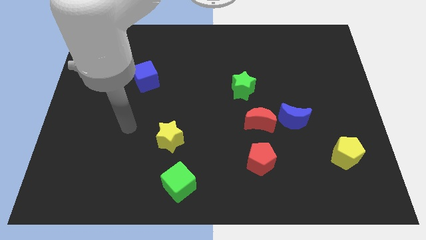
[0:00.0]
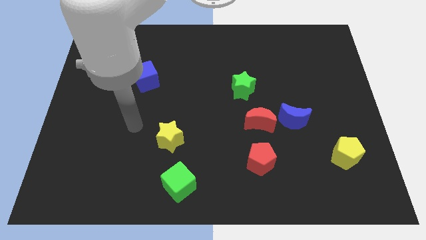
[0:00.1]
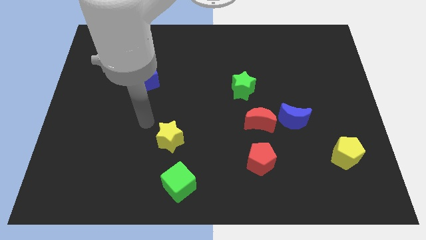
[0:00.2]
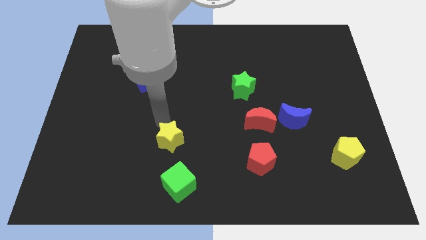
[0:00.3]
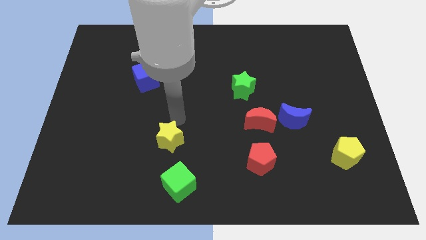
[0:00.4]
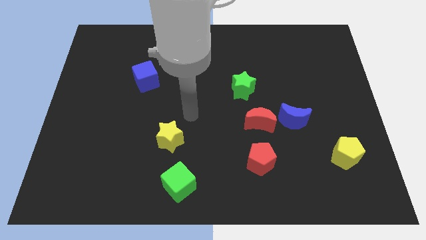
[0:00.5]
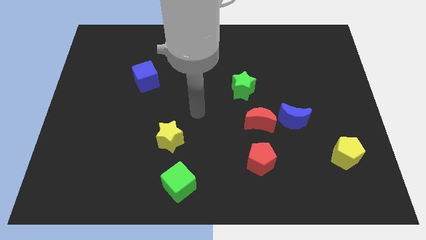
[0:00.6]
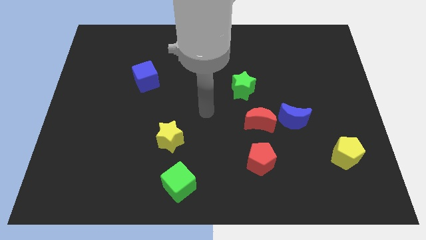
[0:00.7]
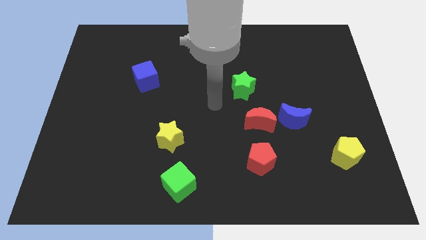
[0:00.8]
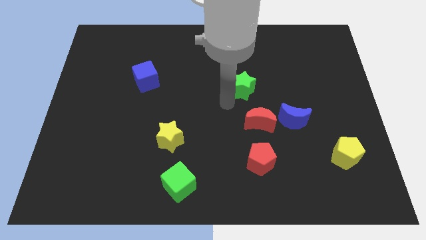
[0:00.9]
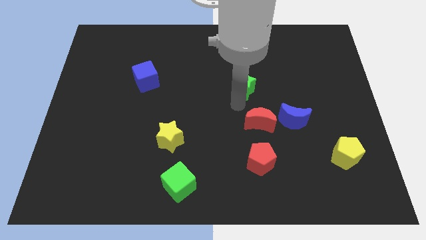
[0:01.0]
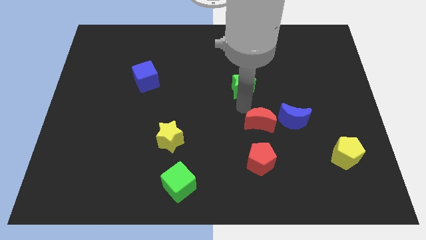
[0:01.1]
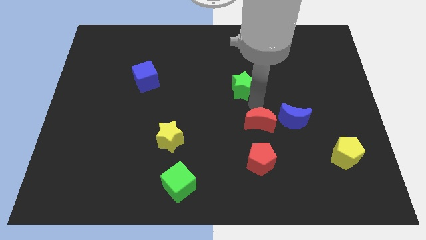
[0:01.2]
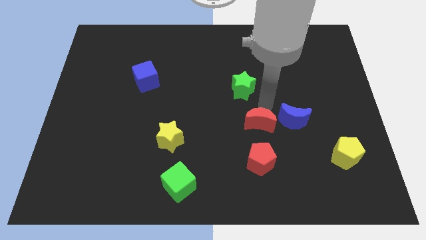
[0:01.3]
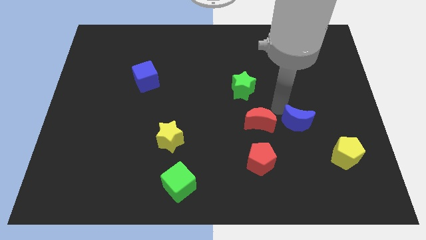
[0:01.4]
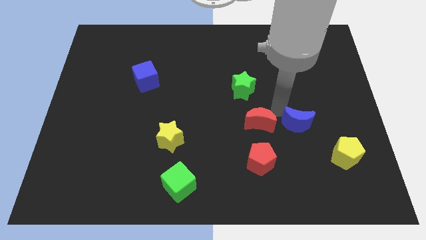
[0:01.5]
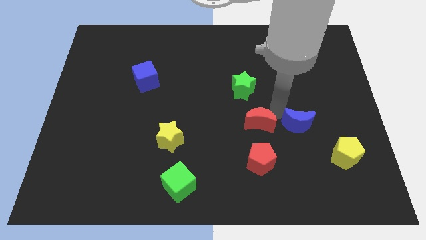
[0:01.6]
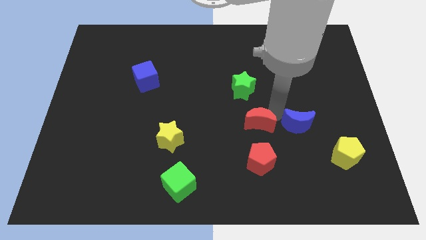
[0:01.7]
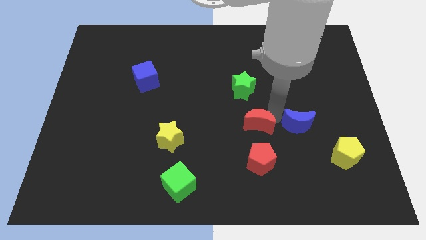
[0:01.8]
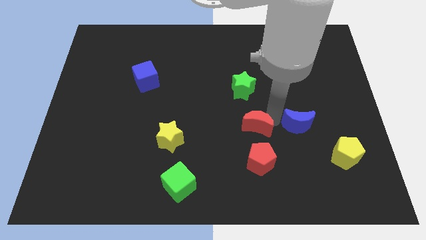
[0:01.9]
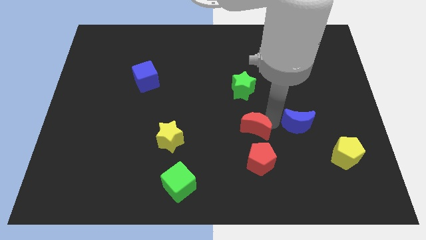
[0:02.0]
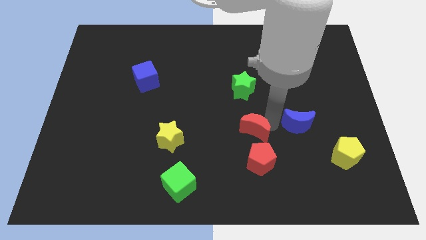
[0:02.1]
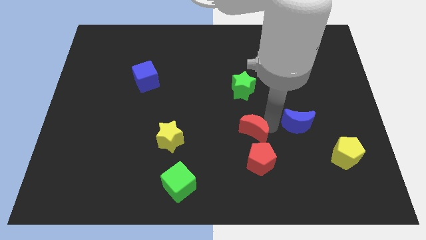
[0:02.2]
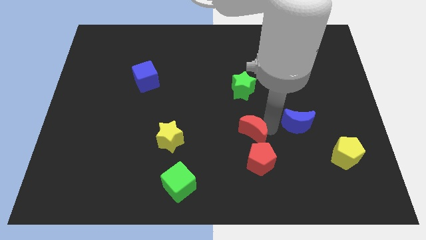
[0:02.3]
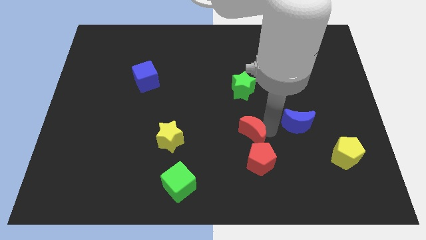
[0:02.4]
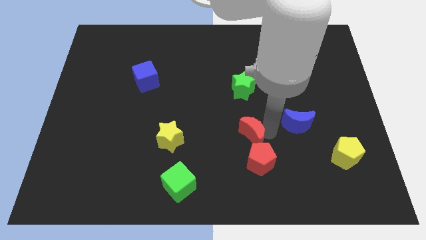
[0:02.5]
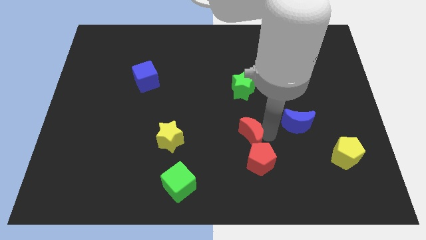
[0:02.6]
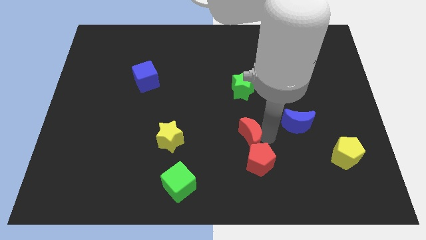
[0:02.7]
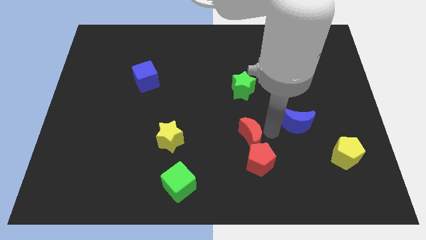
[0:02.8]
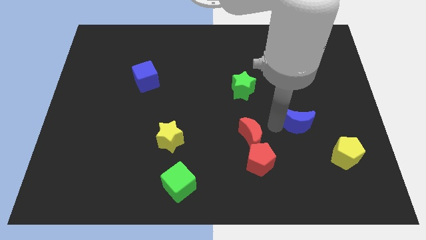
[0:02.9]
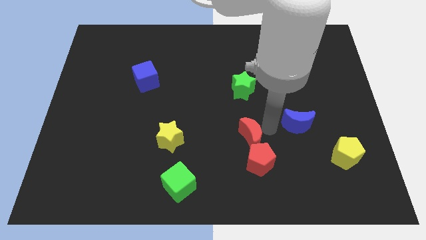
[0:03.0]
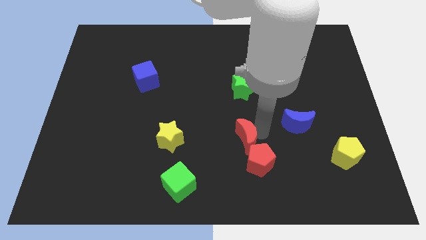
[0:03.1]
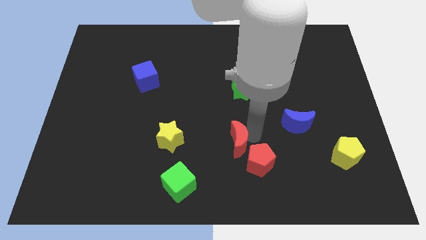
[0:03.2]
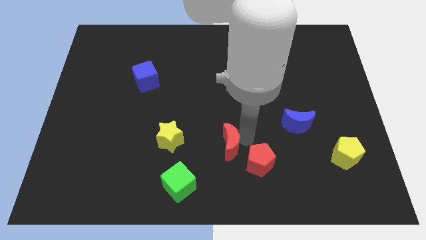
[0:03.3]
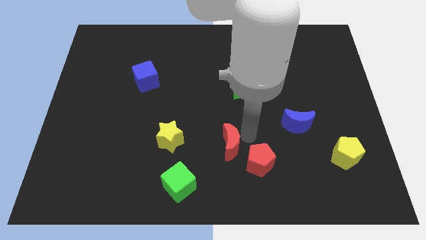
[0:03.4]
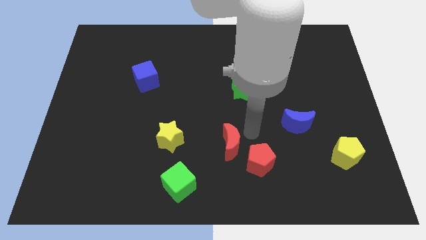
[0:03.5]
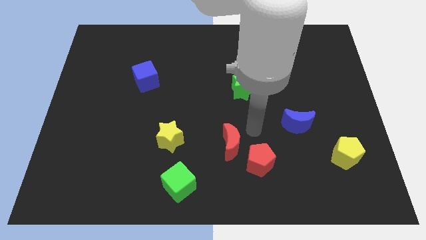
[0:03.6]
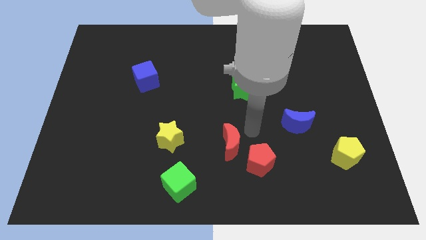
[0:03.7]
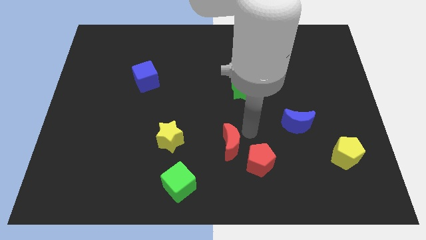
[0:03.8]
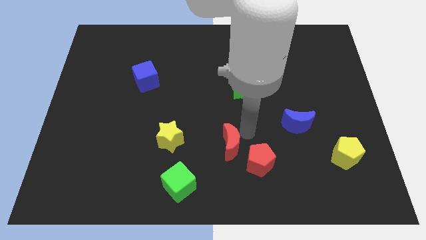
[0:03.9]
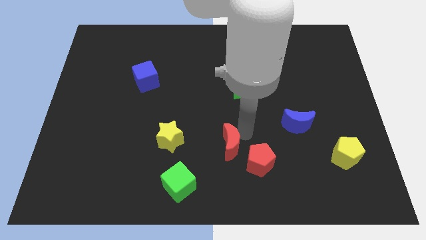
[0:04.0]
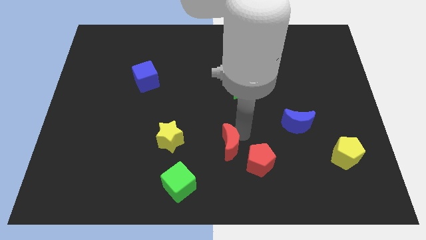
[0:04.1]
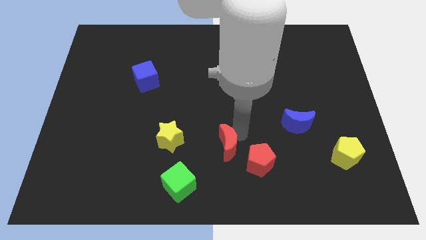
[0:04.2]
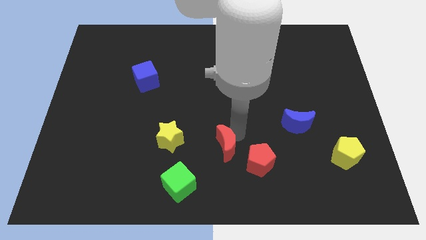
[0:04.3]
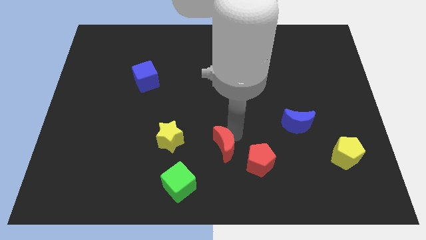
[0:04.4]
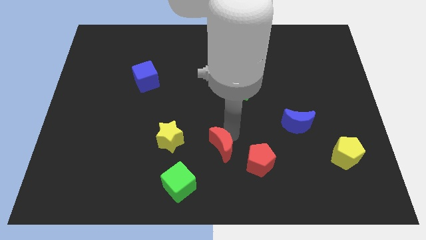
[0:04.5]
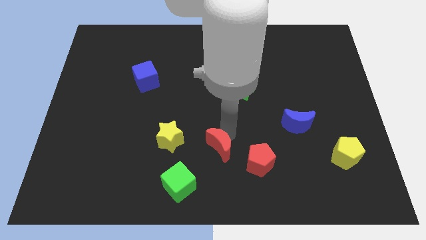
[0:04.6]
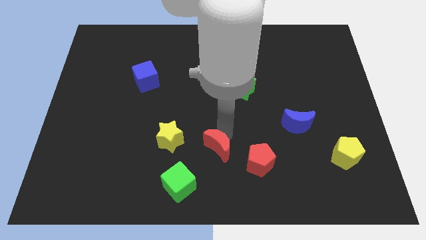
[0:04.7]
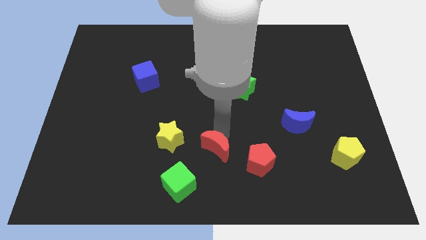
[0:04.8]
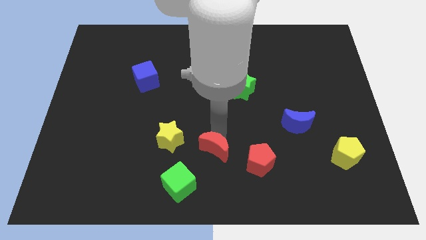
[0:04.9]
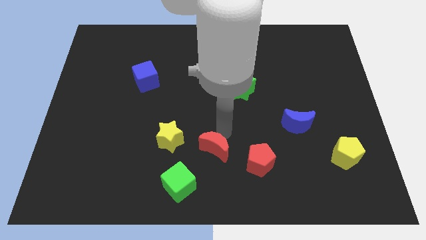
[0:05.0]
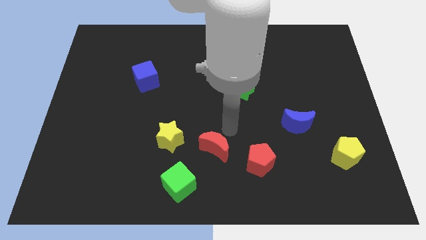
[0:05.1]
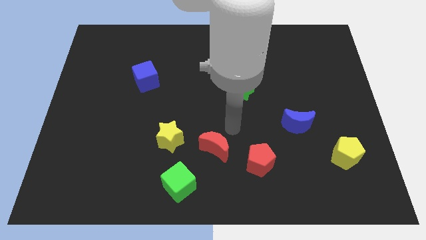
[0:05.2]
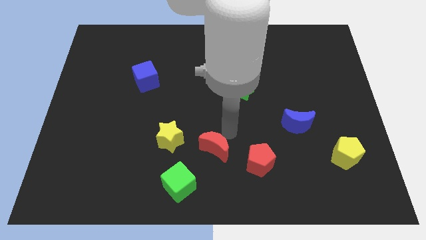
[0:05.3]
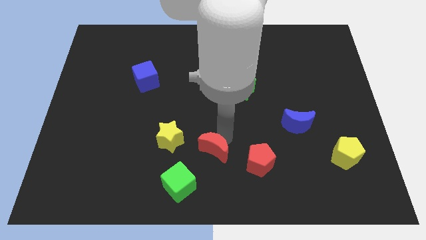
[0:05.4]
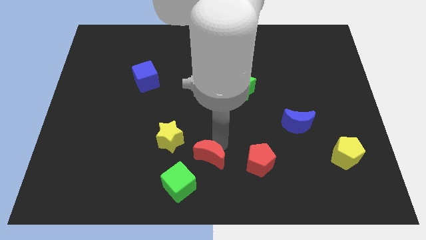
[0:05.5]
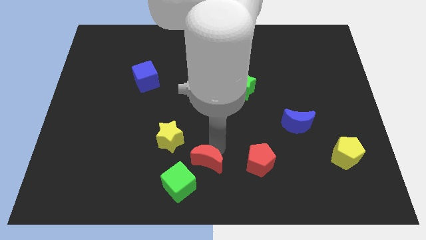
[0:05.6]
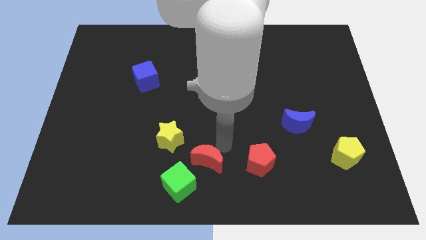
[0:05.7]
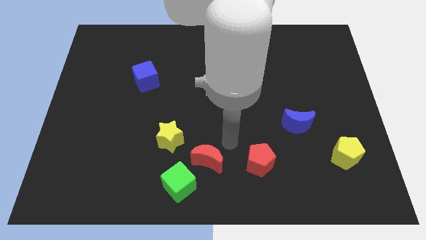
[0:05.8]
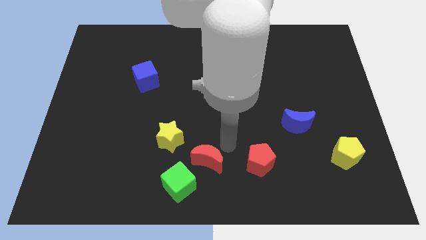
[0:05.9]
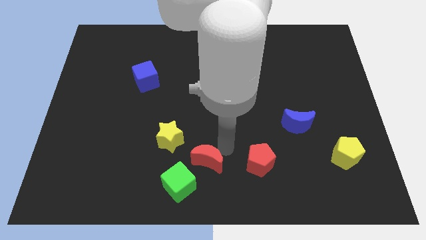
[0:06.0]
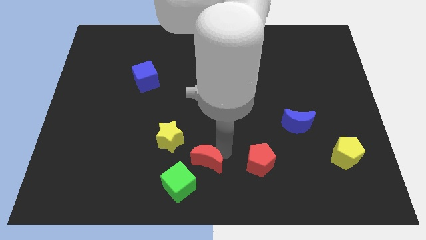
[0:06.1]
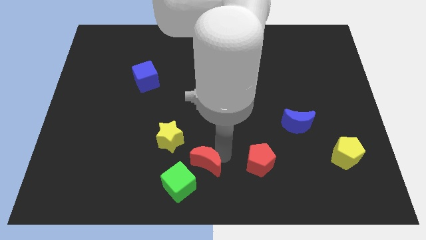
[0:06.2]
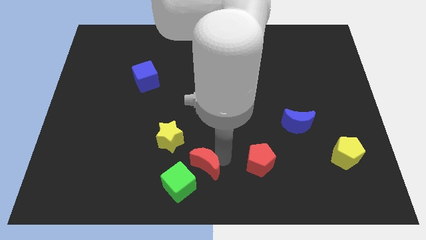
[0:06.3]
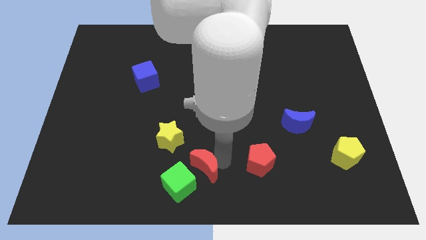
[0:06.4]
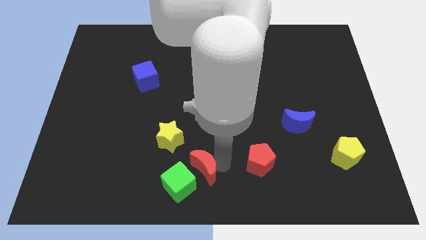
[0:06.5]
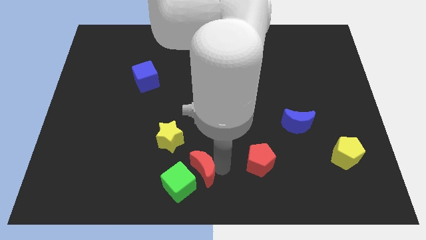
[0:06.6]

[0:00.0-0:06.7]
push the red moon towards the green cube
